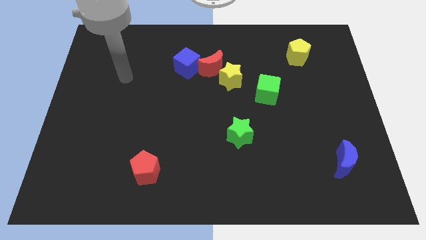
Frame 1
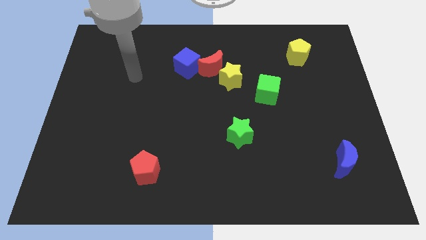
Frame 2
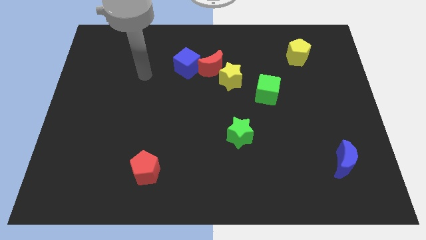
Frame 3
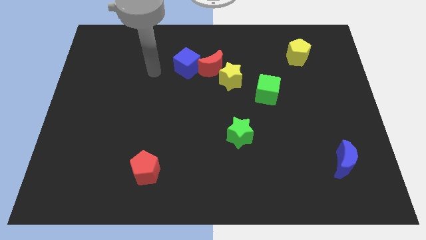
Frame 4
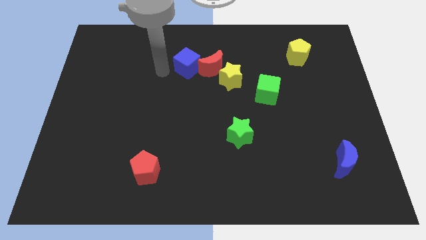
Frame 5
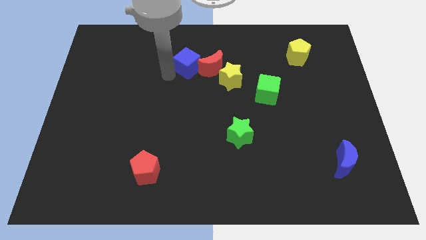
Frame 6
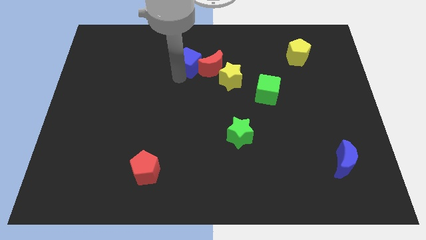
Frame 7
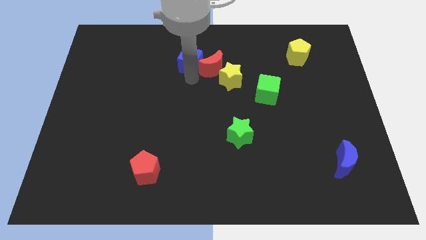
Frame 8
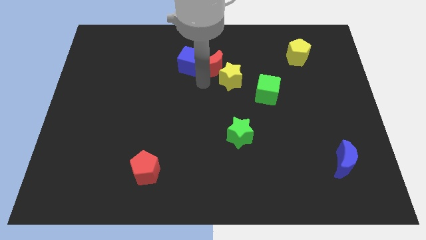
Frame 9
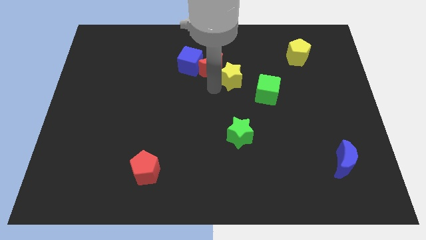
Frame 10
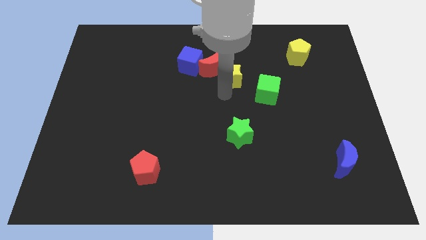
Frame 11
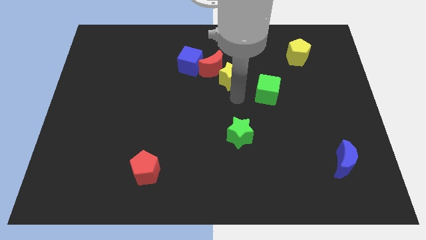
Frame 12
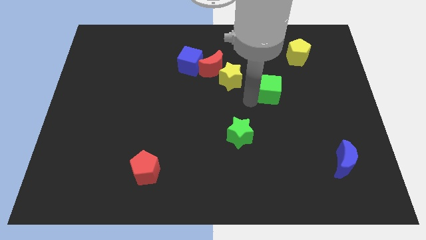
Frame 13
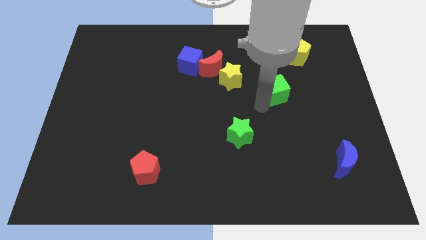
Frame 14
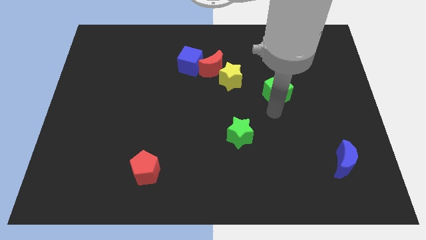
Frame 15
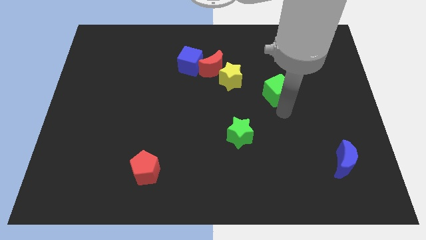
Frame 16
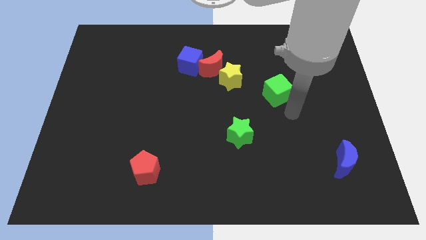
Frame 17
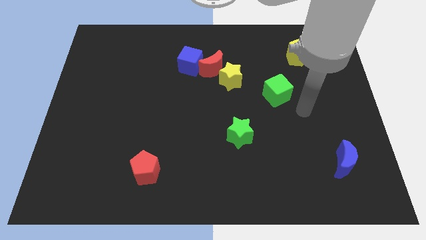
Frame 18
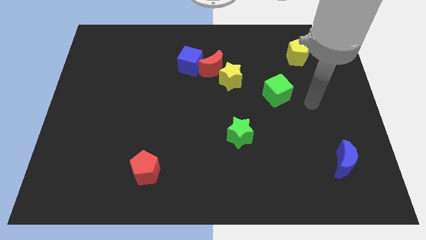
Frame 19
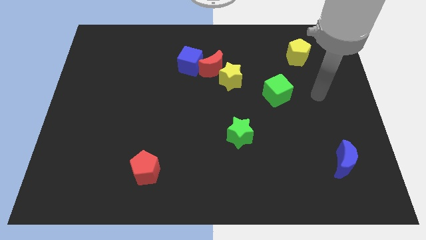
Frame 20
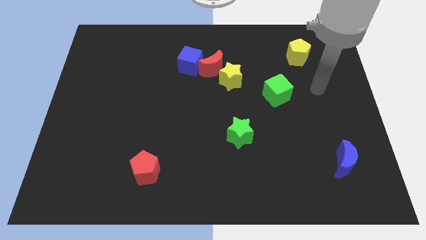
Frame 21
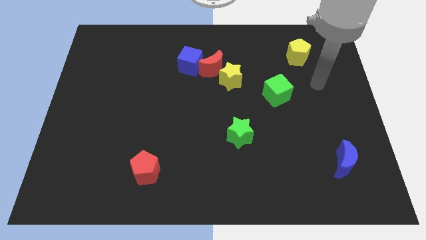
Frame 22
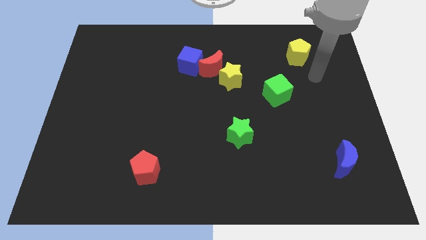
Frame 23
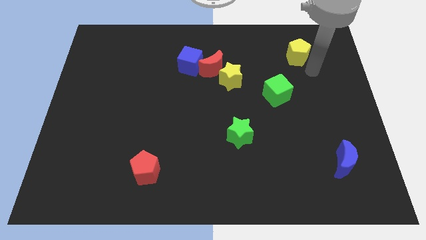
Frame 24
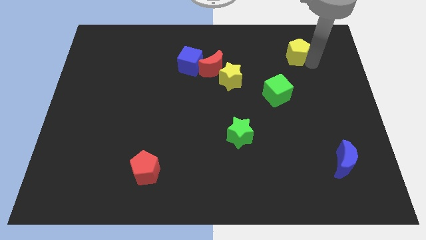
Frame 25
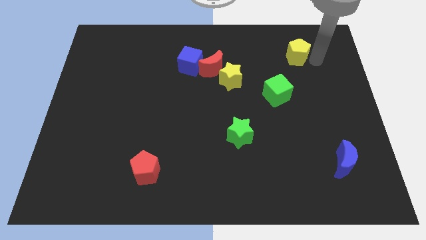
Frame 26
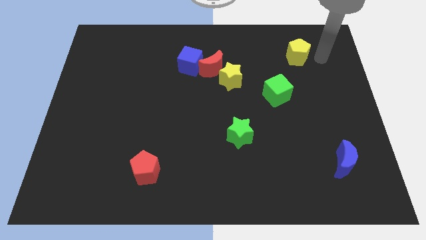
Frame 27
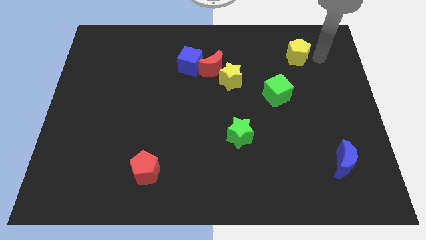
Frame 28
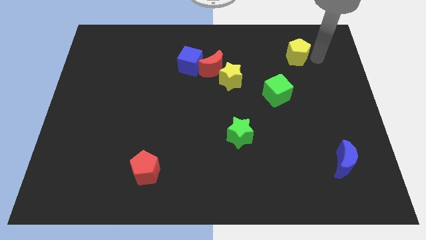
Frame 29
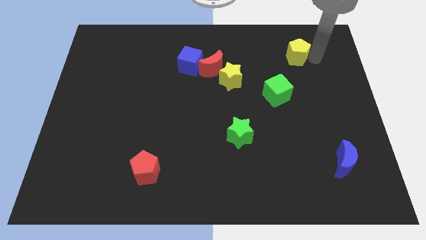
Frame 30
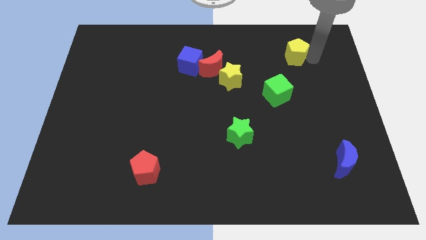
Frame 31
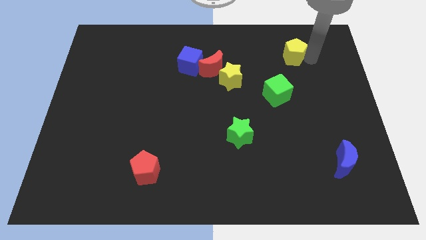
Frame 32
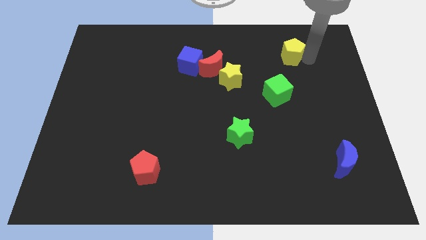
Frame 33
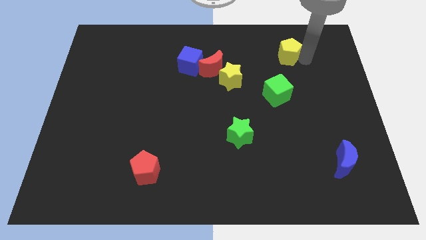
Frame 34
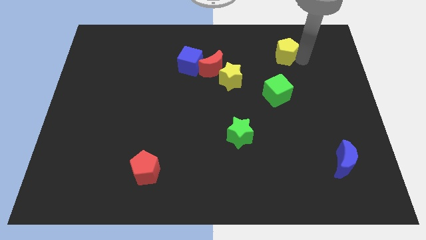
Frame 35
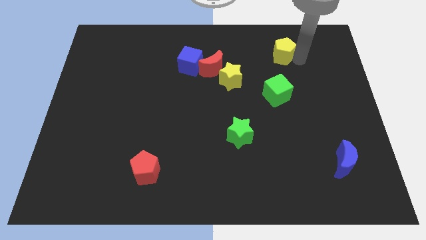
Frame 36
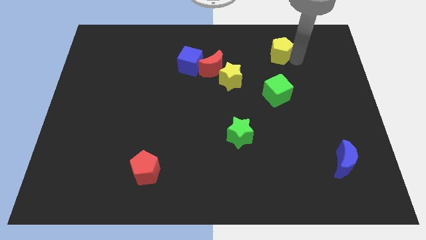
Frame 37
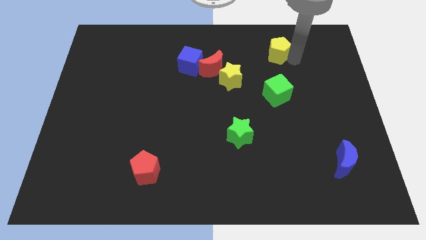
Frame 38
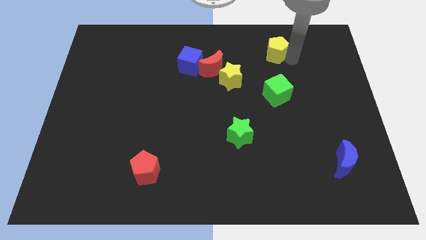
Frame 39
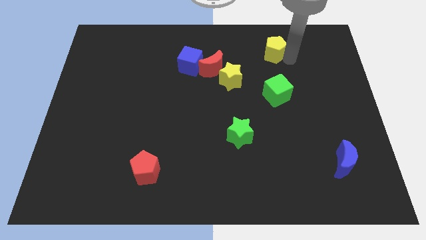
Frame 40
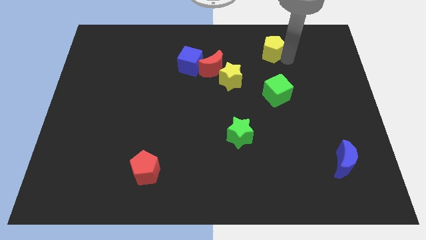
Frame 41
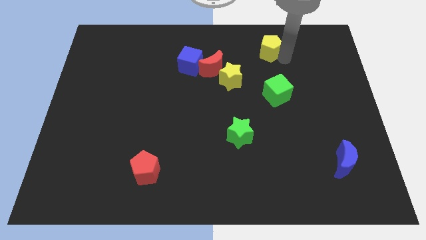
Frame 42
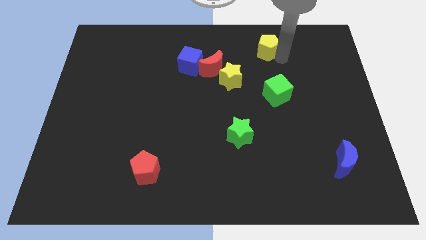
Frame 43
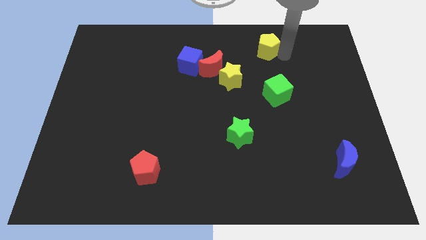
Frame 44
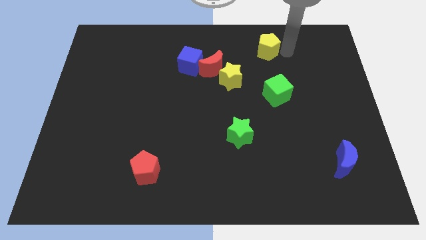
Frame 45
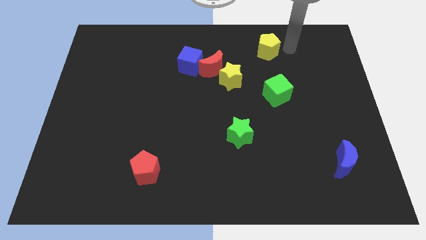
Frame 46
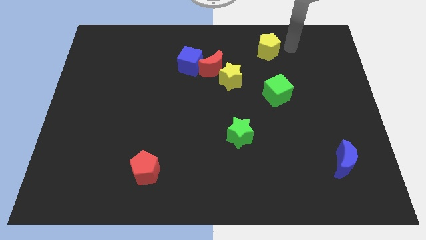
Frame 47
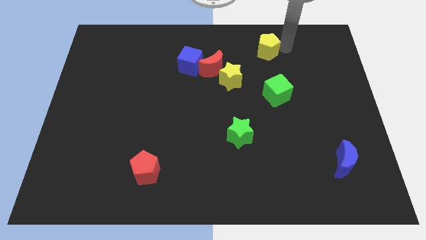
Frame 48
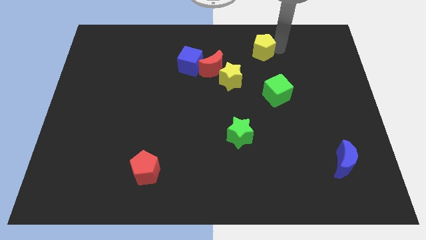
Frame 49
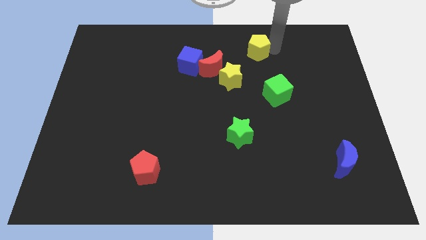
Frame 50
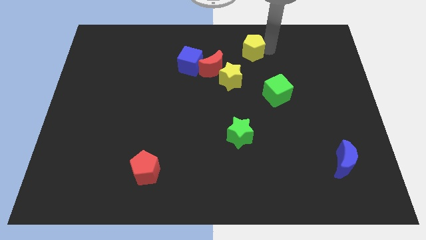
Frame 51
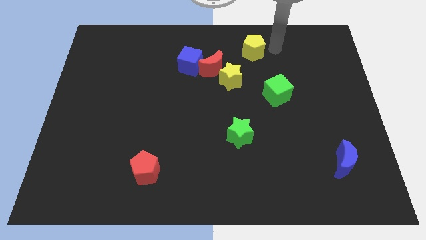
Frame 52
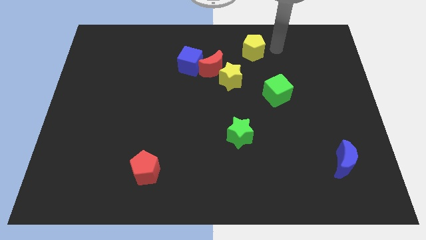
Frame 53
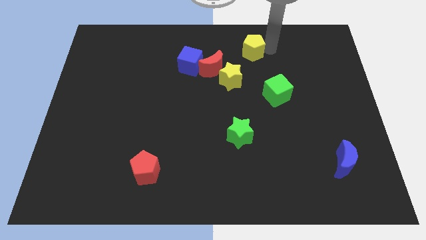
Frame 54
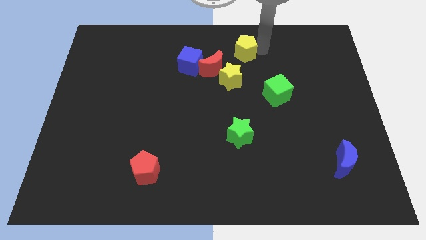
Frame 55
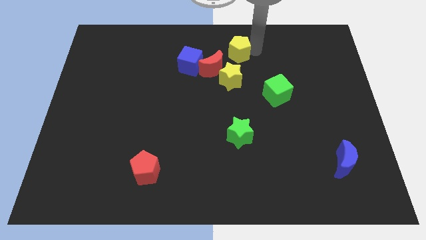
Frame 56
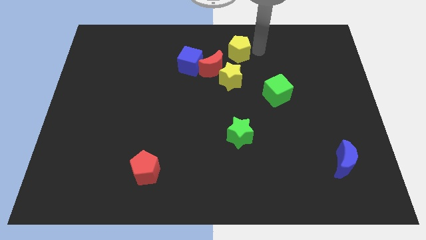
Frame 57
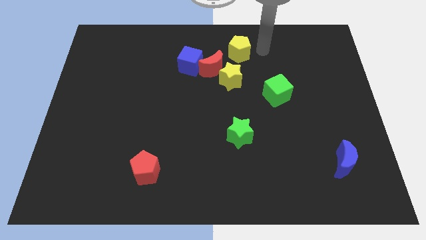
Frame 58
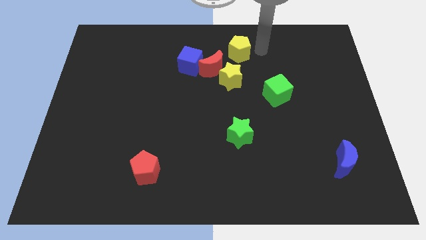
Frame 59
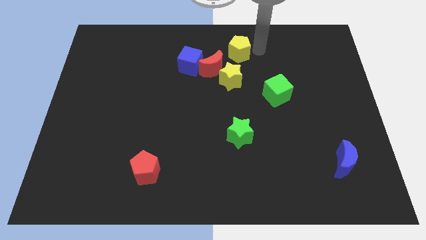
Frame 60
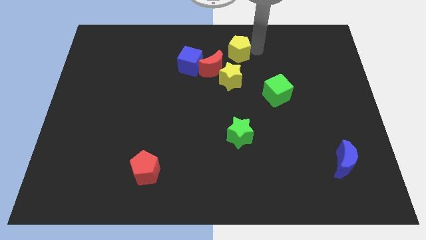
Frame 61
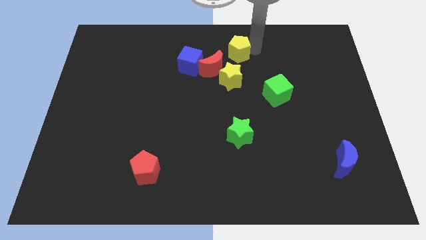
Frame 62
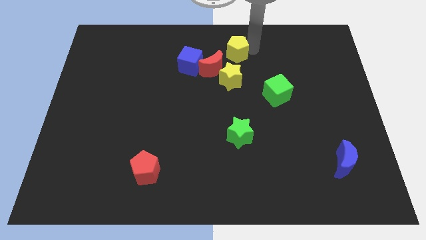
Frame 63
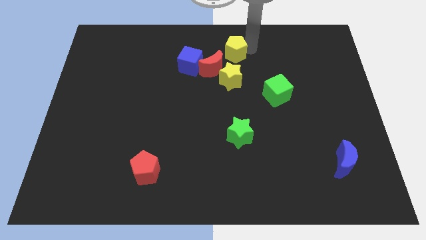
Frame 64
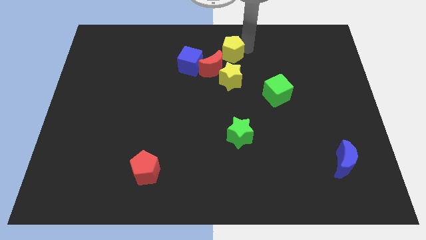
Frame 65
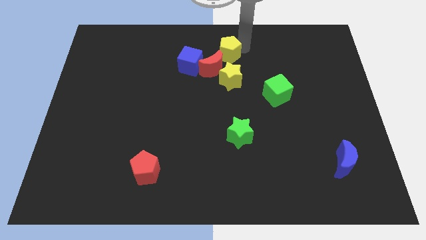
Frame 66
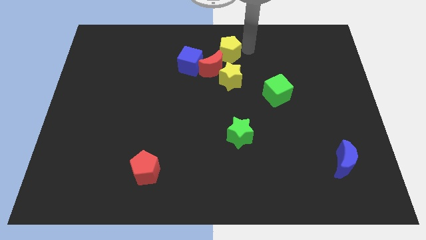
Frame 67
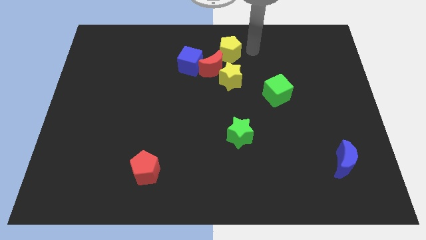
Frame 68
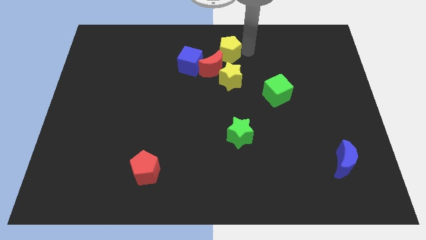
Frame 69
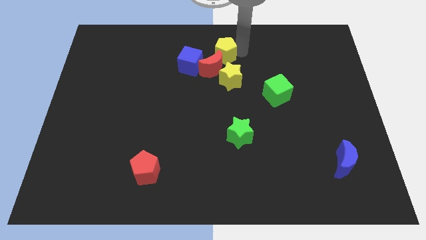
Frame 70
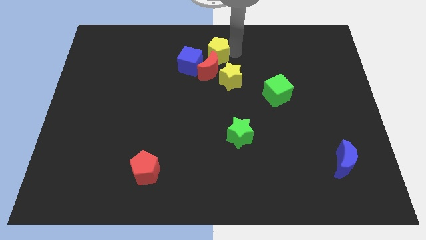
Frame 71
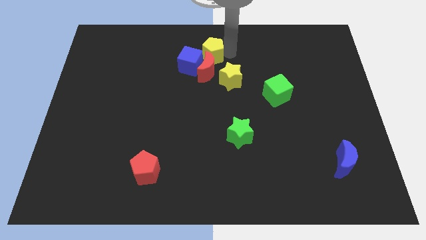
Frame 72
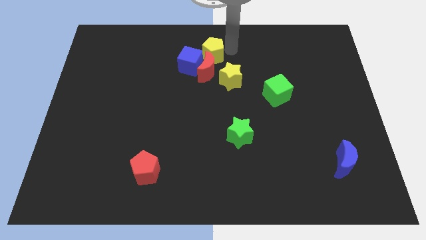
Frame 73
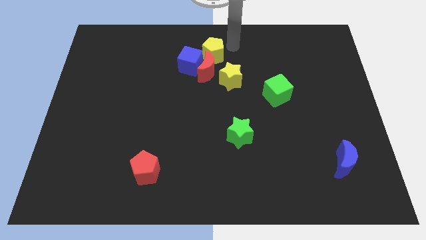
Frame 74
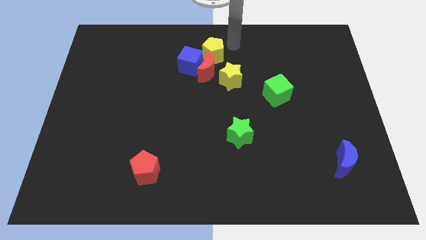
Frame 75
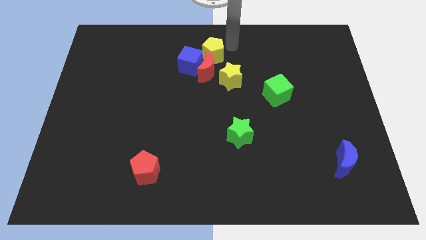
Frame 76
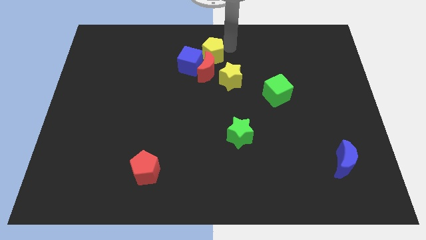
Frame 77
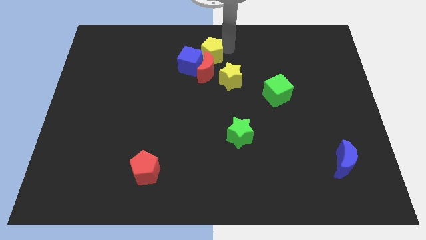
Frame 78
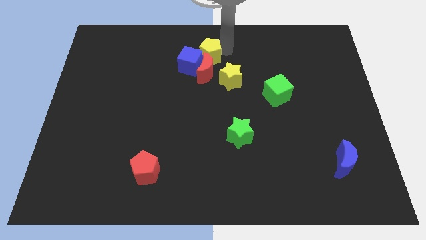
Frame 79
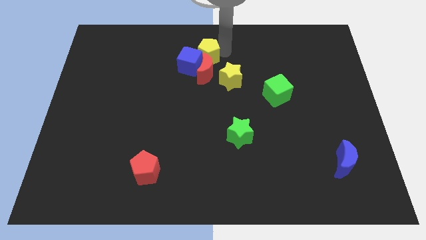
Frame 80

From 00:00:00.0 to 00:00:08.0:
move the yellow pentagon next to the blue cube
